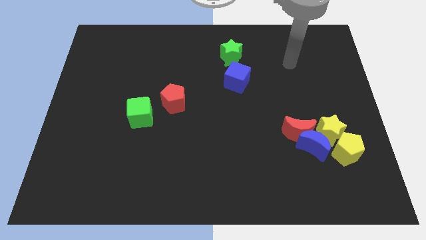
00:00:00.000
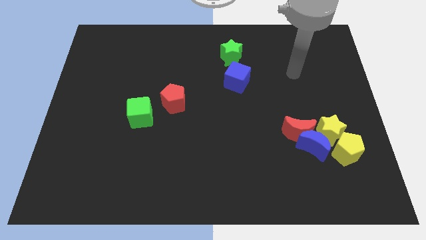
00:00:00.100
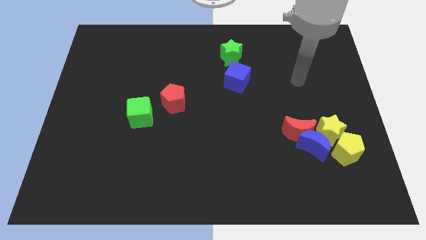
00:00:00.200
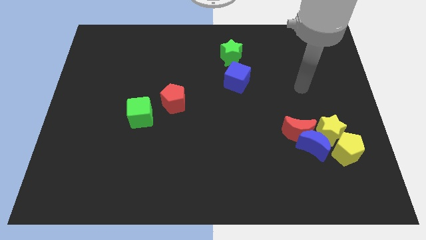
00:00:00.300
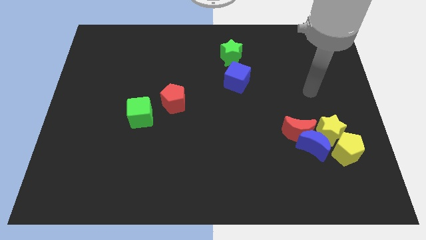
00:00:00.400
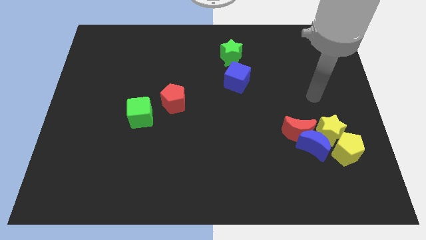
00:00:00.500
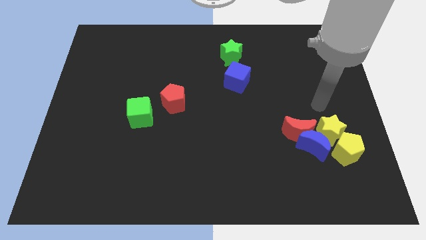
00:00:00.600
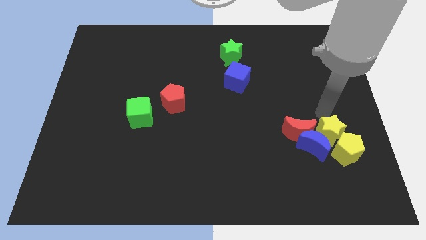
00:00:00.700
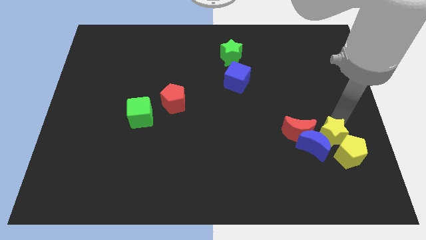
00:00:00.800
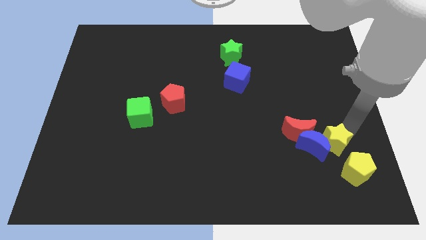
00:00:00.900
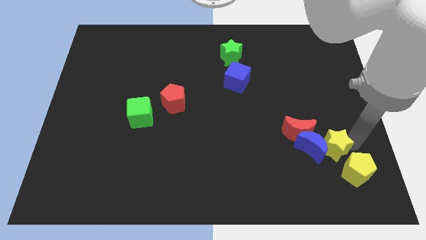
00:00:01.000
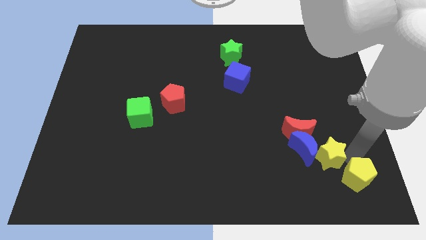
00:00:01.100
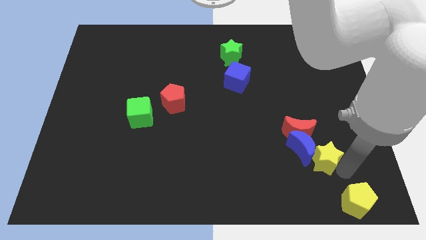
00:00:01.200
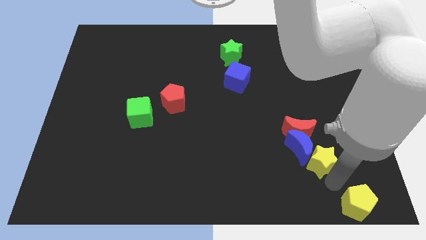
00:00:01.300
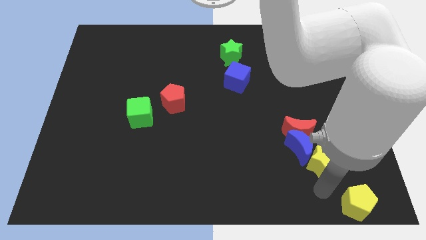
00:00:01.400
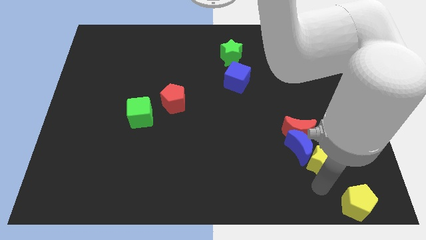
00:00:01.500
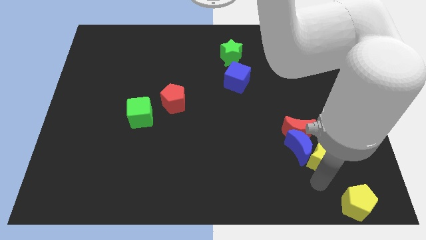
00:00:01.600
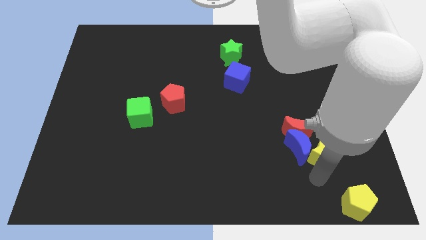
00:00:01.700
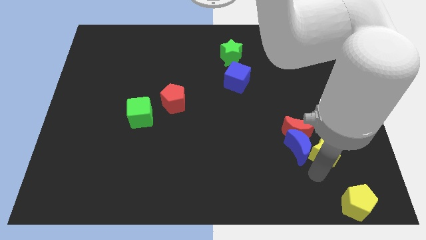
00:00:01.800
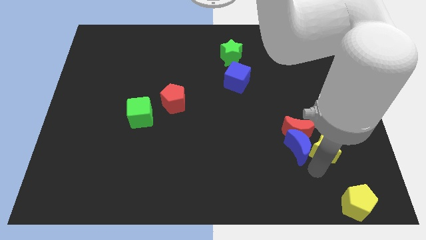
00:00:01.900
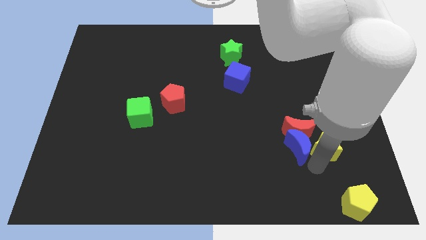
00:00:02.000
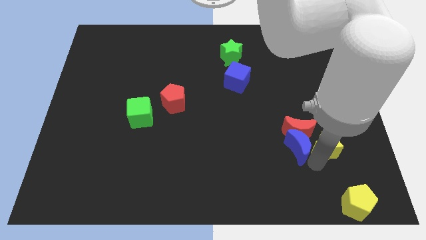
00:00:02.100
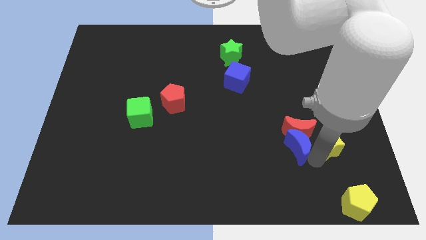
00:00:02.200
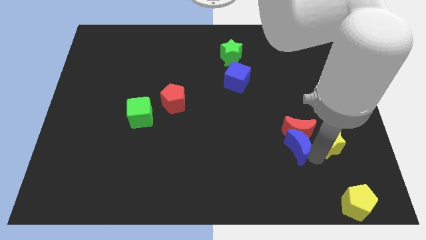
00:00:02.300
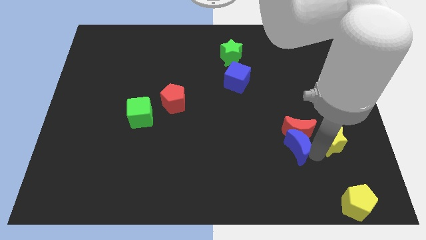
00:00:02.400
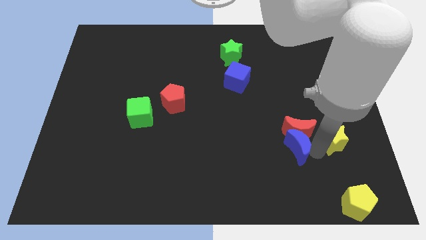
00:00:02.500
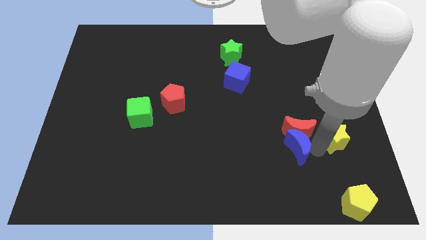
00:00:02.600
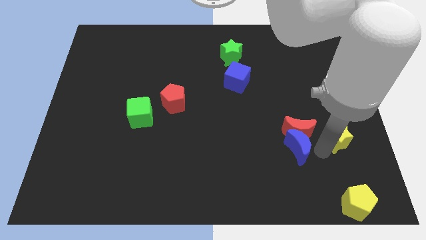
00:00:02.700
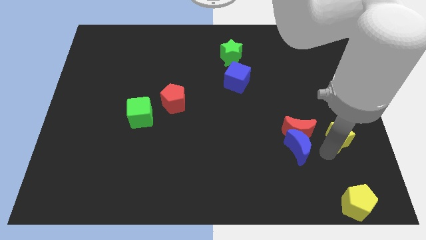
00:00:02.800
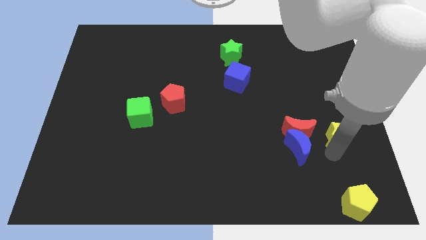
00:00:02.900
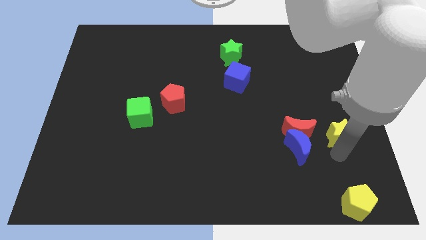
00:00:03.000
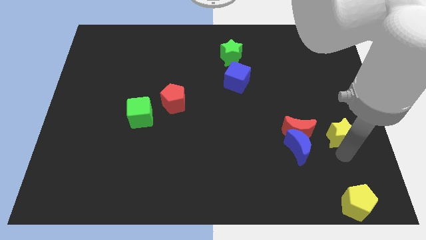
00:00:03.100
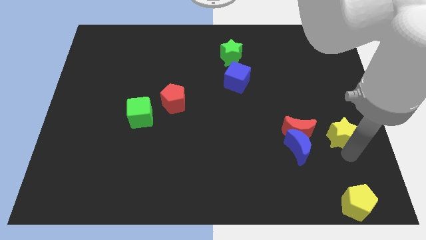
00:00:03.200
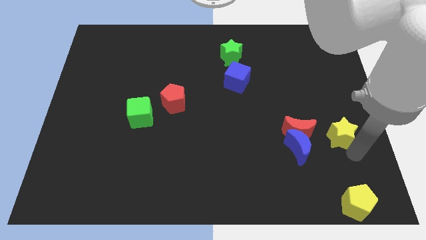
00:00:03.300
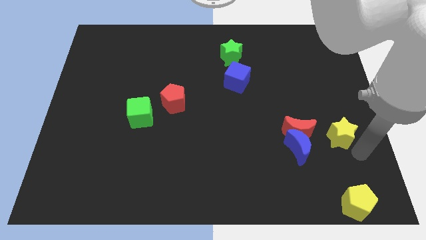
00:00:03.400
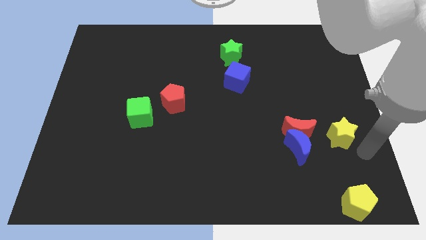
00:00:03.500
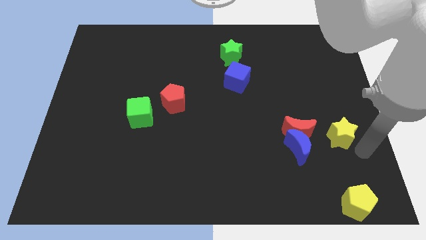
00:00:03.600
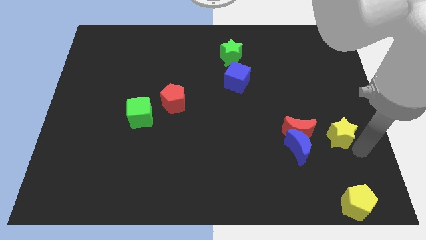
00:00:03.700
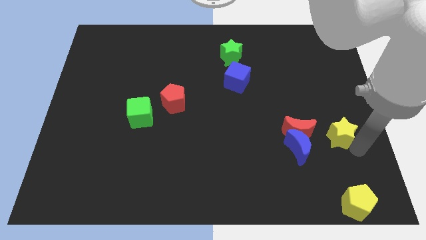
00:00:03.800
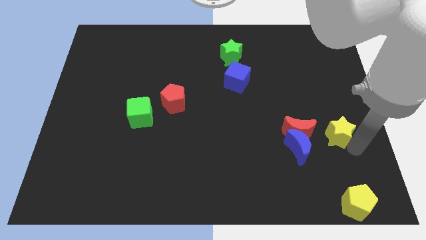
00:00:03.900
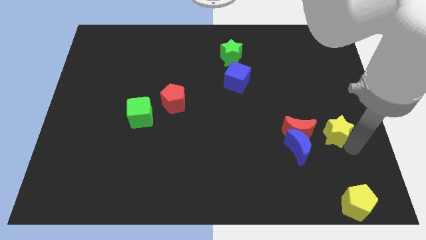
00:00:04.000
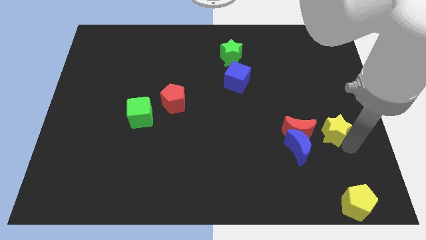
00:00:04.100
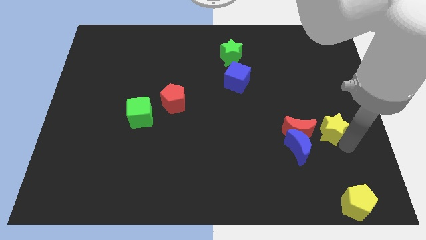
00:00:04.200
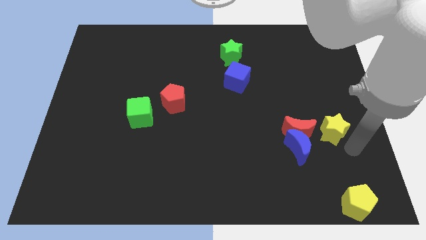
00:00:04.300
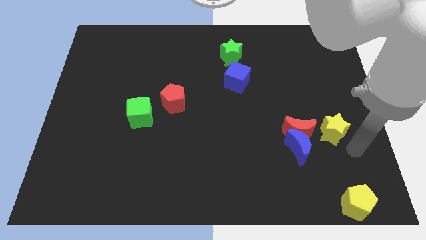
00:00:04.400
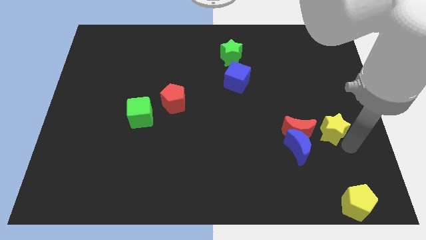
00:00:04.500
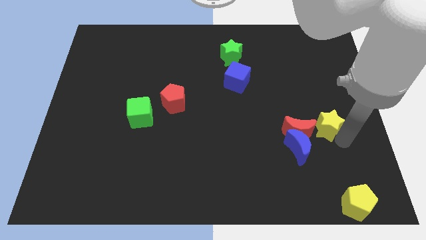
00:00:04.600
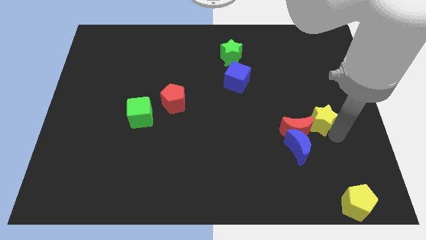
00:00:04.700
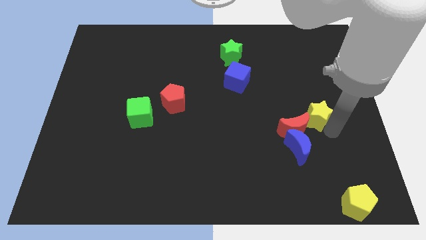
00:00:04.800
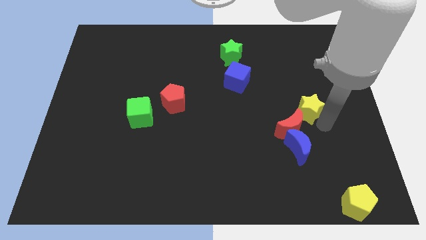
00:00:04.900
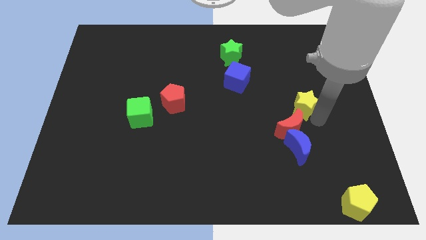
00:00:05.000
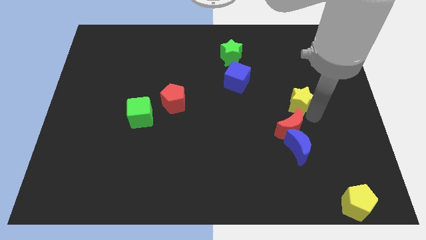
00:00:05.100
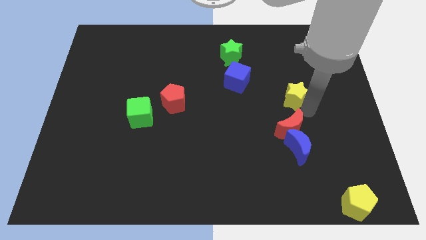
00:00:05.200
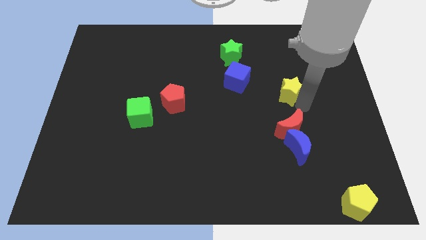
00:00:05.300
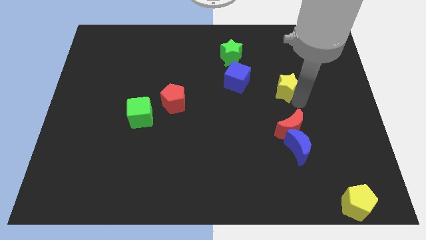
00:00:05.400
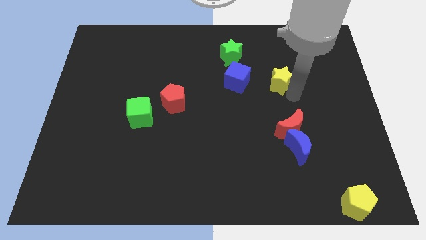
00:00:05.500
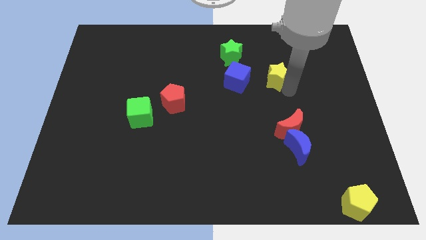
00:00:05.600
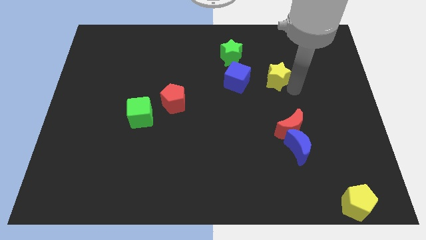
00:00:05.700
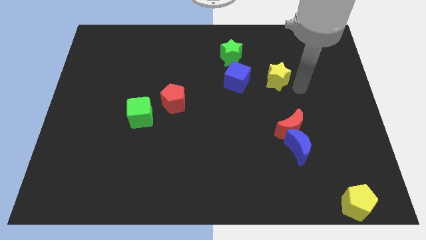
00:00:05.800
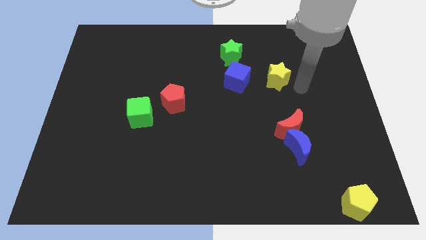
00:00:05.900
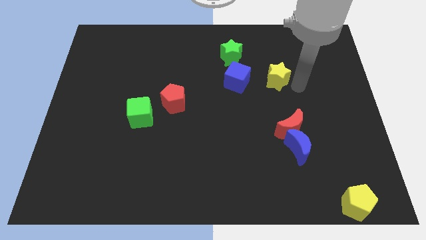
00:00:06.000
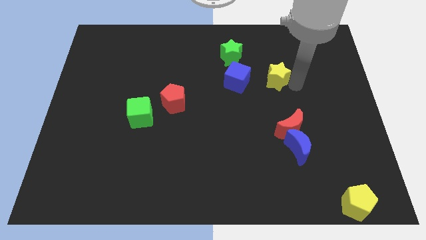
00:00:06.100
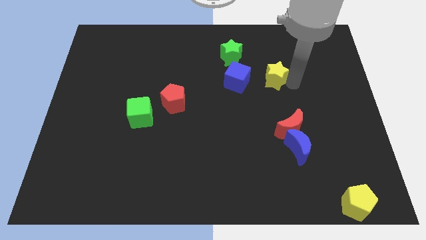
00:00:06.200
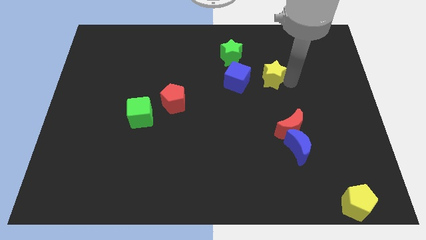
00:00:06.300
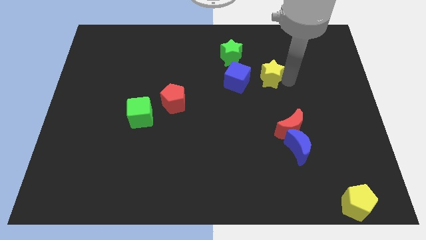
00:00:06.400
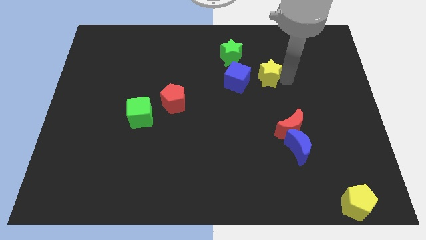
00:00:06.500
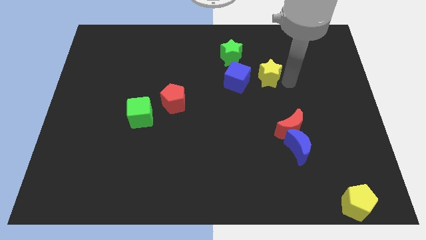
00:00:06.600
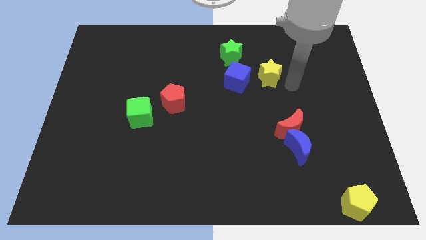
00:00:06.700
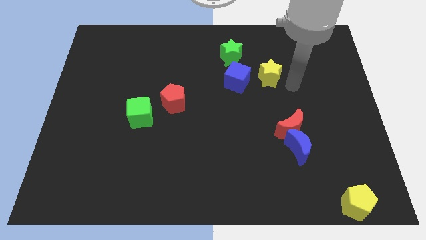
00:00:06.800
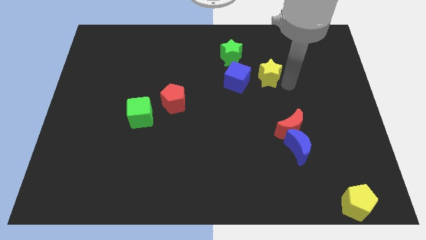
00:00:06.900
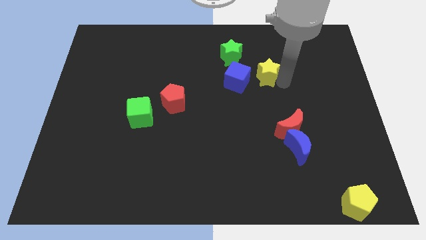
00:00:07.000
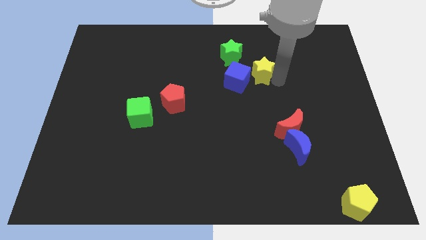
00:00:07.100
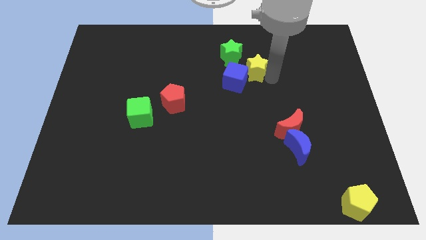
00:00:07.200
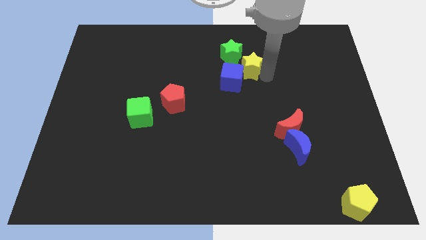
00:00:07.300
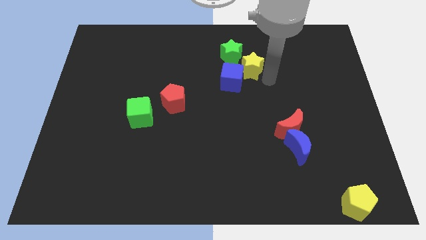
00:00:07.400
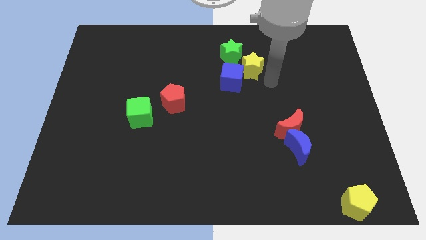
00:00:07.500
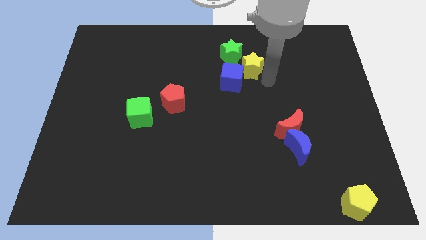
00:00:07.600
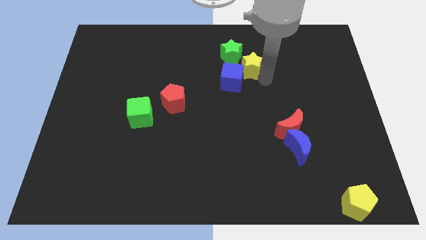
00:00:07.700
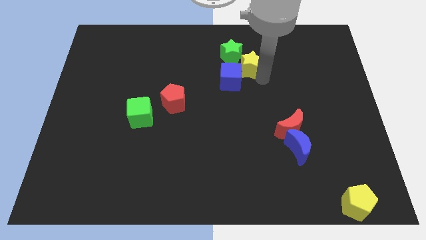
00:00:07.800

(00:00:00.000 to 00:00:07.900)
move the yellow star next to the green star
